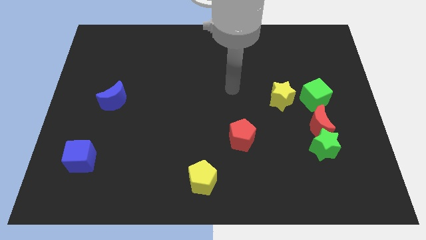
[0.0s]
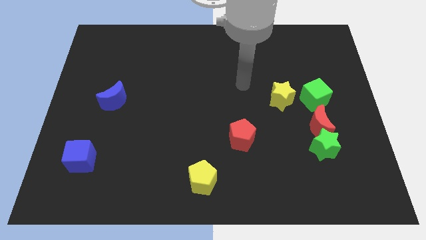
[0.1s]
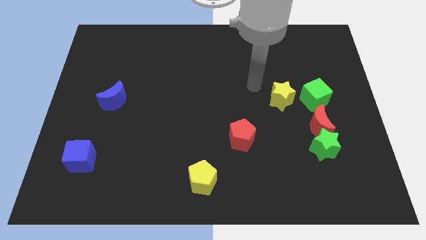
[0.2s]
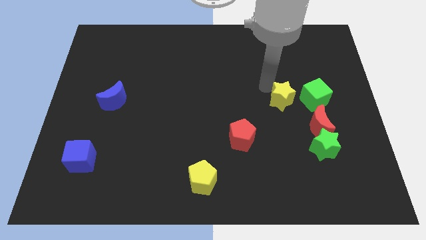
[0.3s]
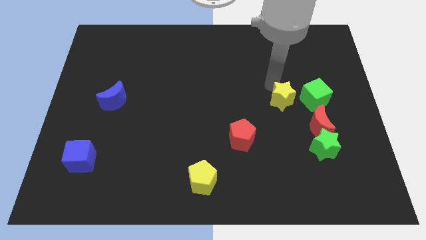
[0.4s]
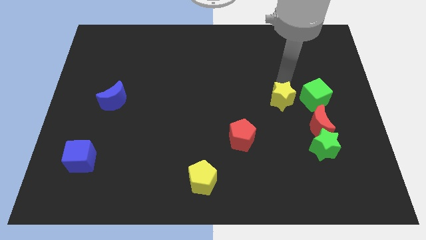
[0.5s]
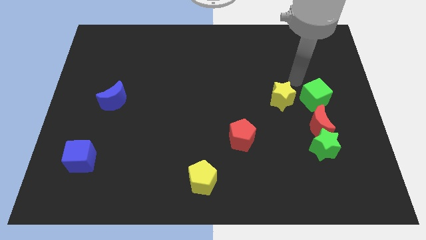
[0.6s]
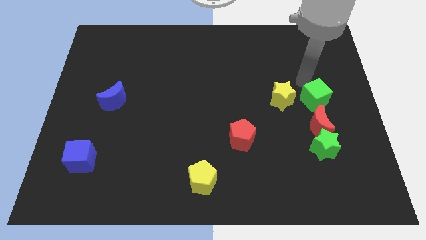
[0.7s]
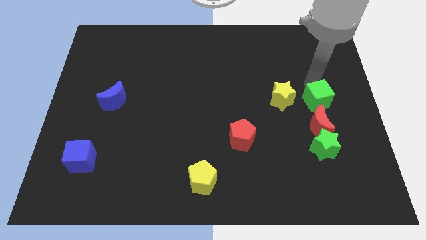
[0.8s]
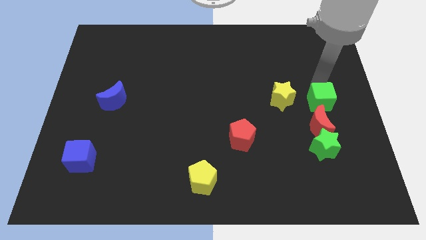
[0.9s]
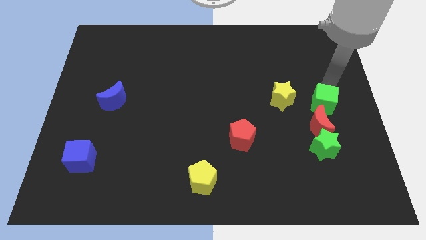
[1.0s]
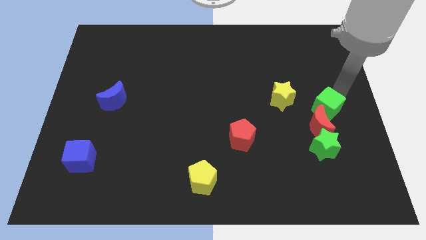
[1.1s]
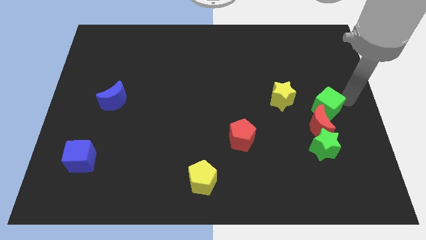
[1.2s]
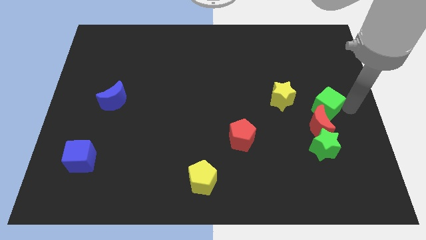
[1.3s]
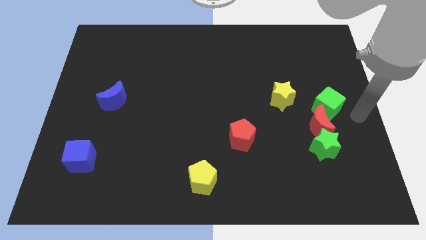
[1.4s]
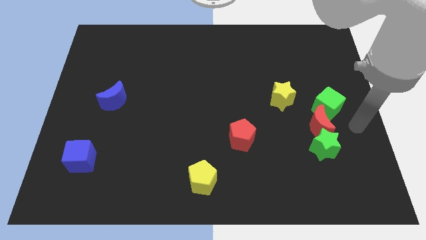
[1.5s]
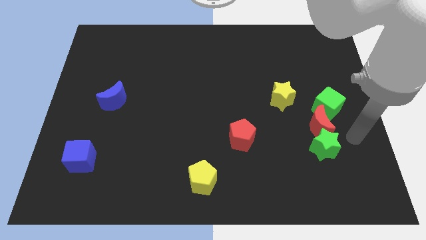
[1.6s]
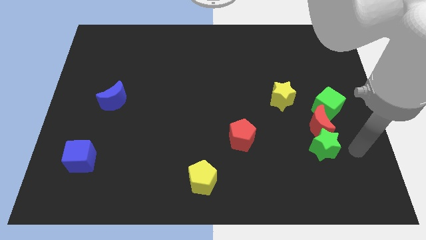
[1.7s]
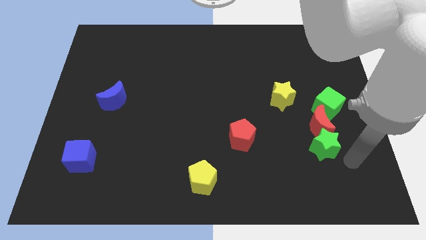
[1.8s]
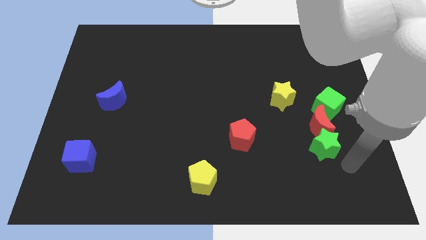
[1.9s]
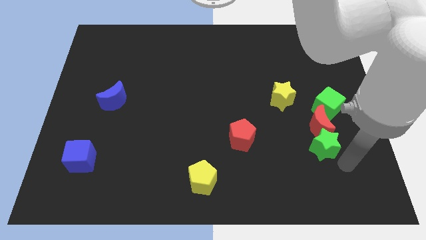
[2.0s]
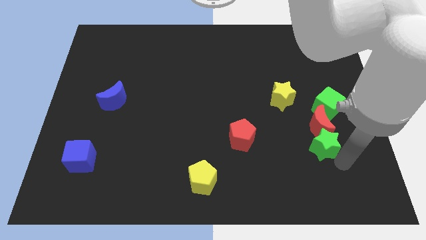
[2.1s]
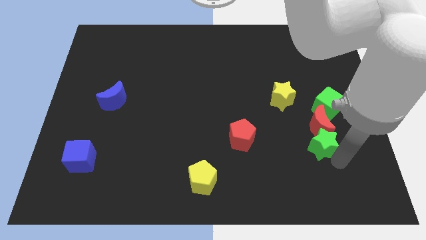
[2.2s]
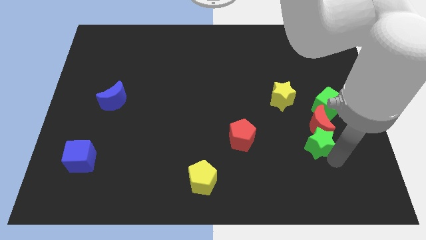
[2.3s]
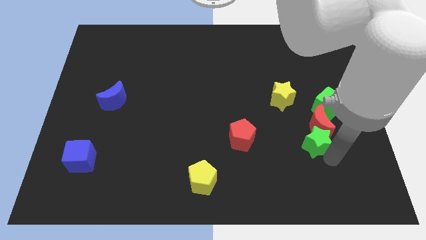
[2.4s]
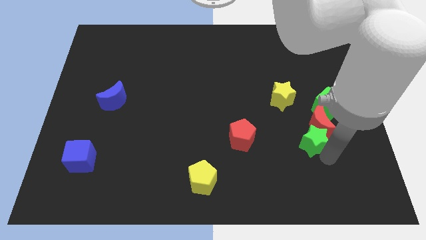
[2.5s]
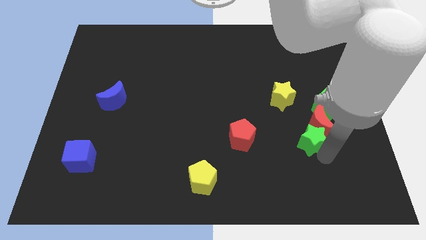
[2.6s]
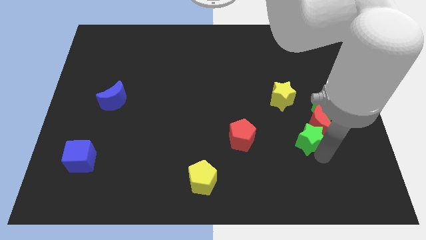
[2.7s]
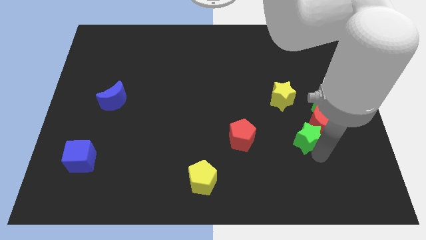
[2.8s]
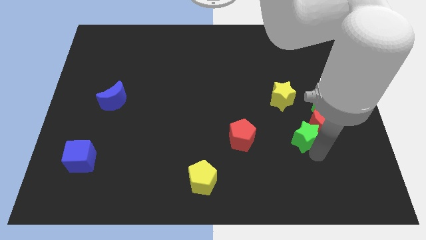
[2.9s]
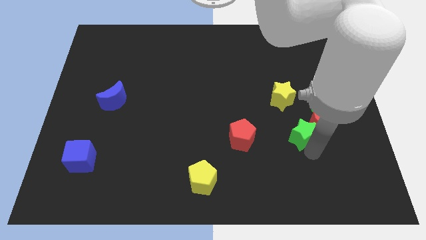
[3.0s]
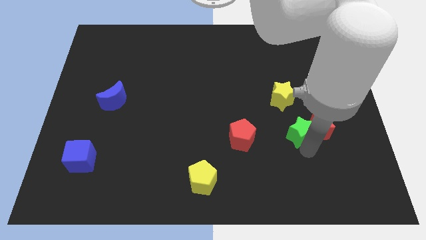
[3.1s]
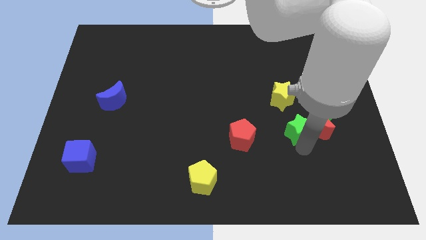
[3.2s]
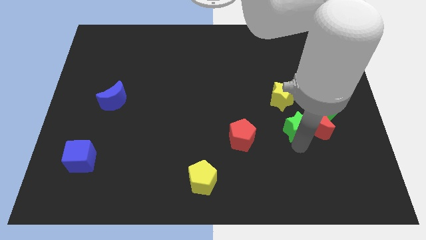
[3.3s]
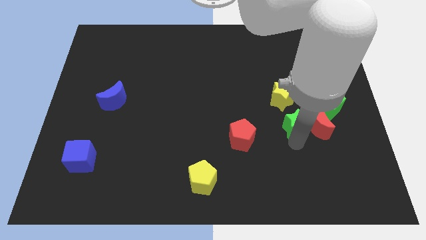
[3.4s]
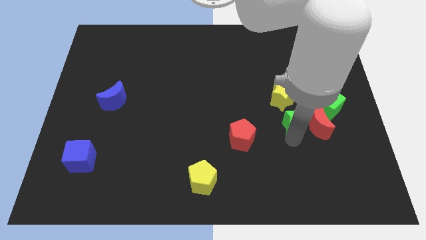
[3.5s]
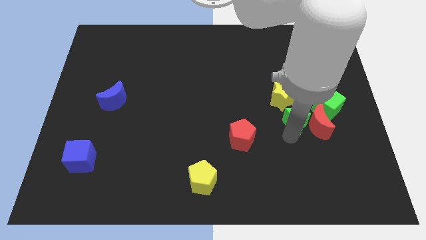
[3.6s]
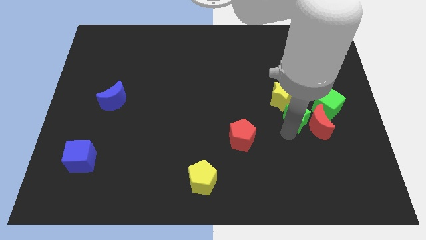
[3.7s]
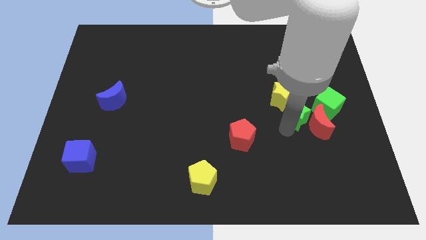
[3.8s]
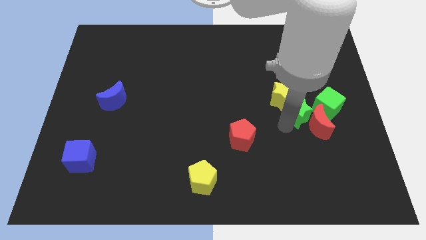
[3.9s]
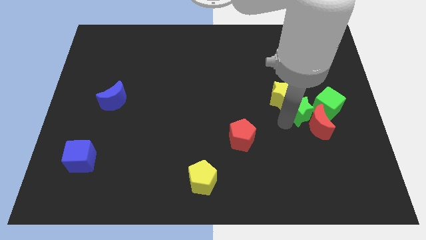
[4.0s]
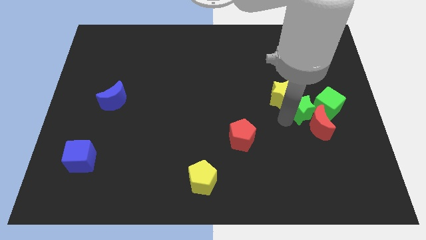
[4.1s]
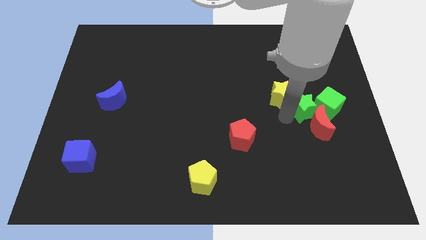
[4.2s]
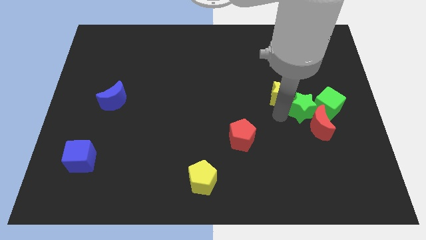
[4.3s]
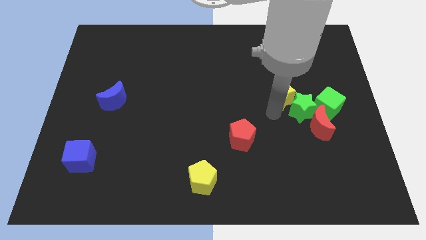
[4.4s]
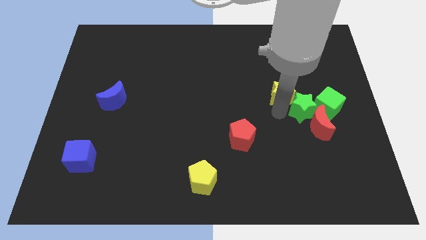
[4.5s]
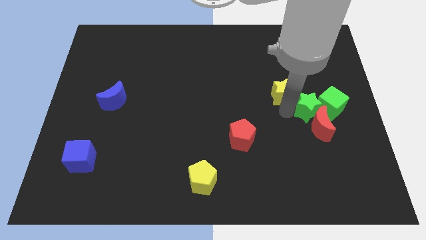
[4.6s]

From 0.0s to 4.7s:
move the green star towards the green cube

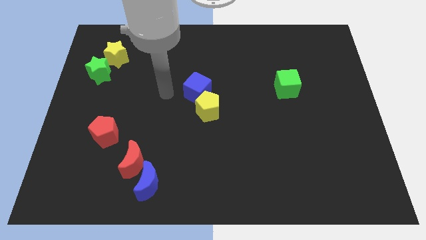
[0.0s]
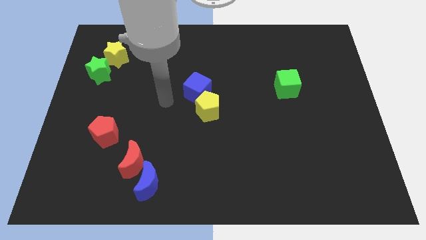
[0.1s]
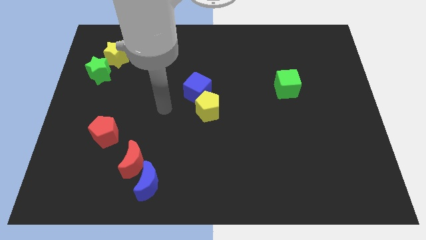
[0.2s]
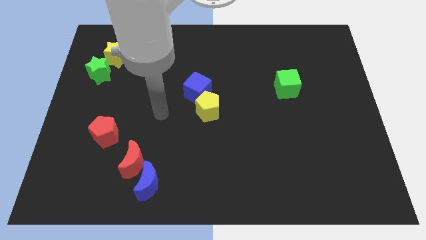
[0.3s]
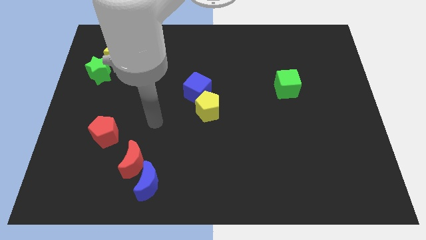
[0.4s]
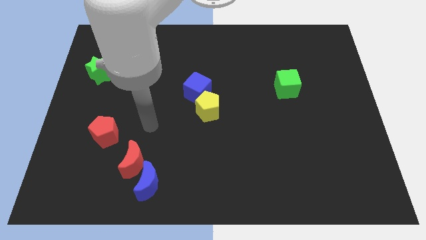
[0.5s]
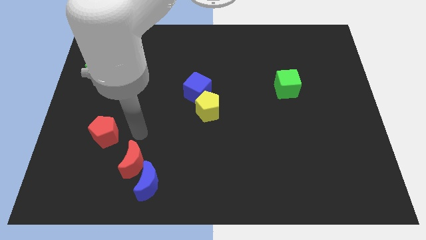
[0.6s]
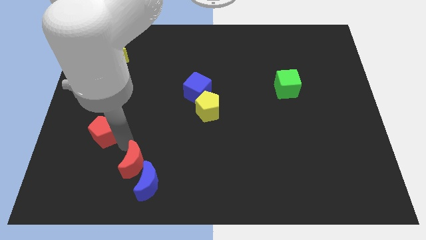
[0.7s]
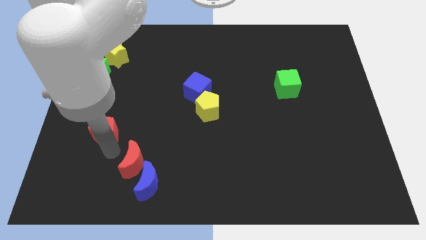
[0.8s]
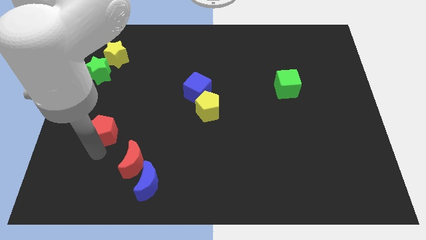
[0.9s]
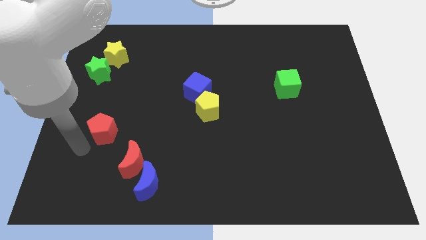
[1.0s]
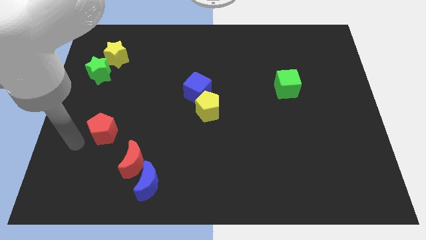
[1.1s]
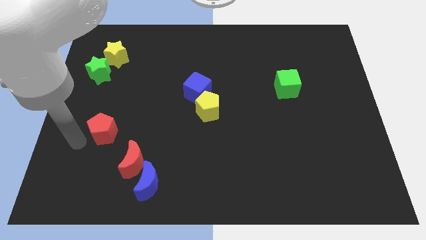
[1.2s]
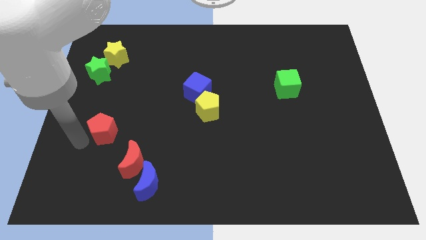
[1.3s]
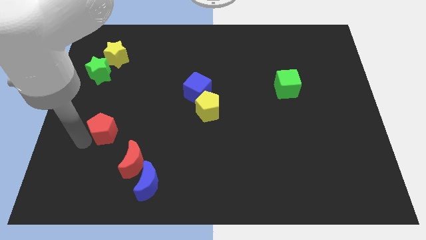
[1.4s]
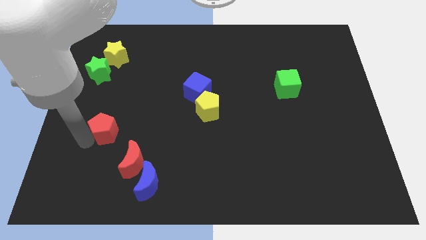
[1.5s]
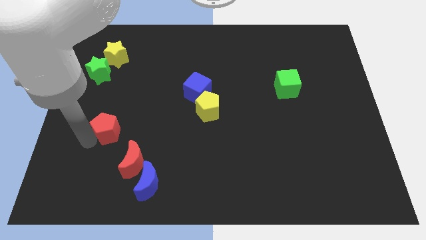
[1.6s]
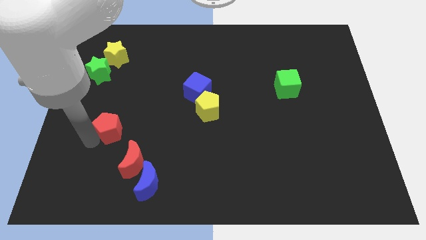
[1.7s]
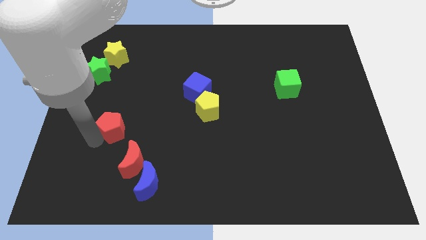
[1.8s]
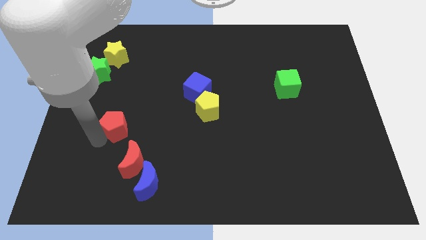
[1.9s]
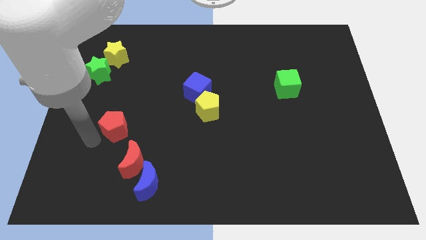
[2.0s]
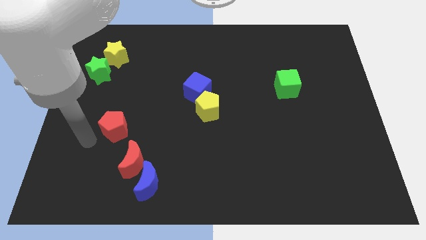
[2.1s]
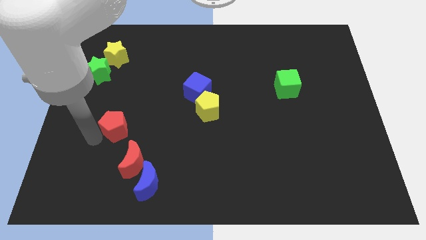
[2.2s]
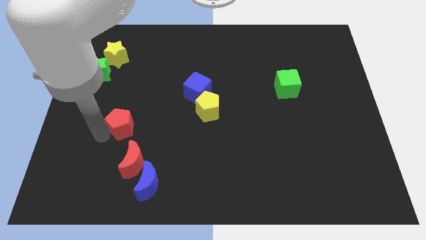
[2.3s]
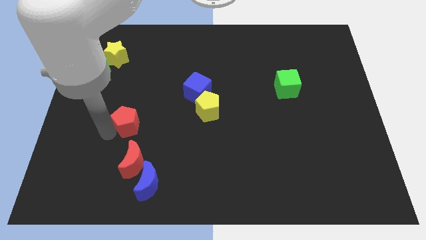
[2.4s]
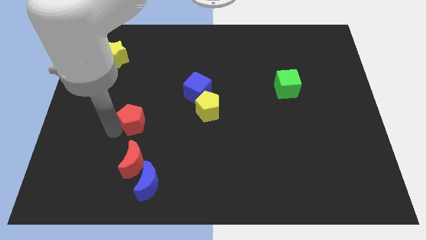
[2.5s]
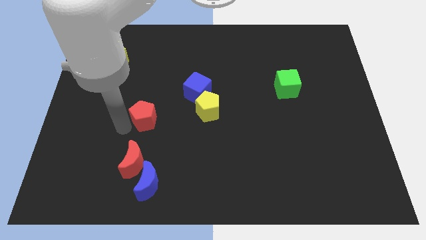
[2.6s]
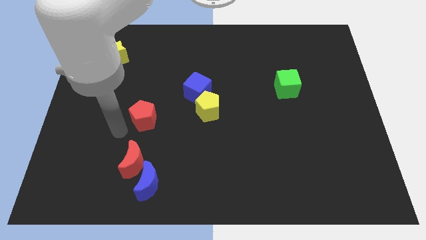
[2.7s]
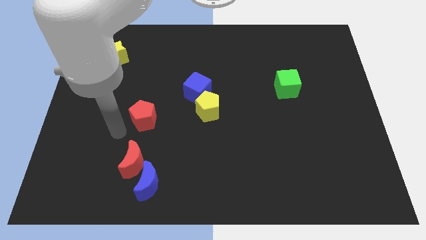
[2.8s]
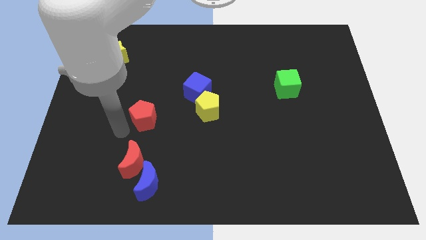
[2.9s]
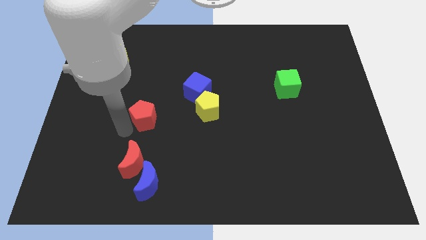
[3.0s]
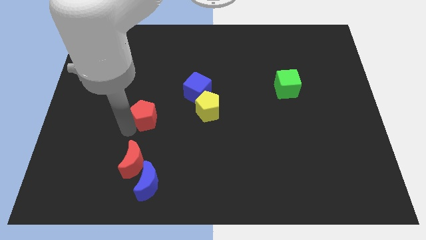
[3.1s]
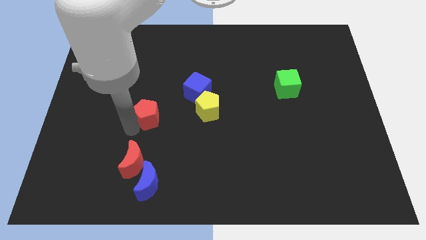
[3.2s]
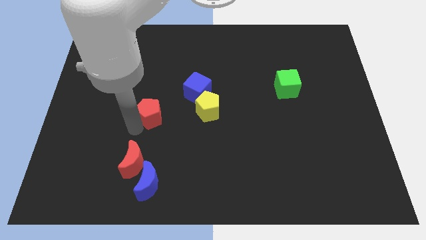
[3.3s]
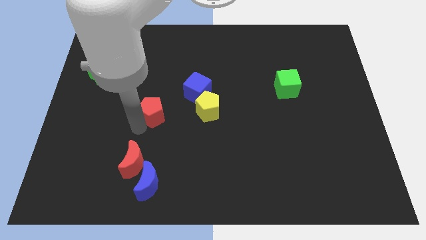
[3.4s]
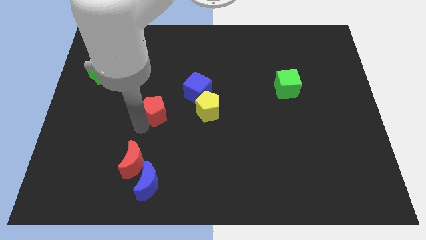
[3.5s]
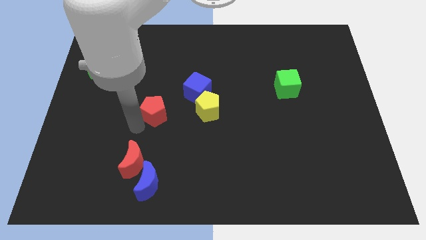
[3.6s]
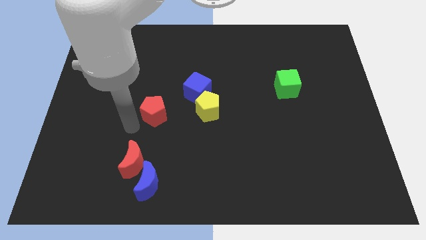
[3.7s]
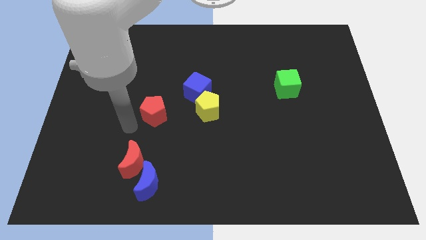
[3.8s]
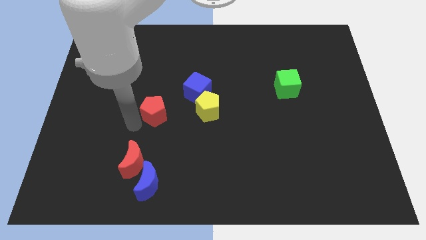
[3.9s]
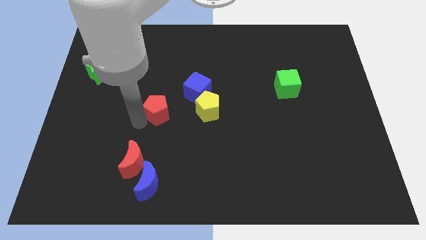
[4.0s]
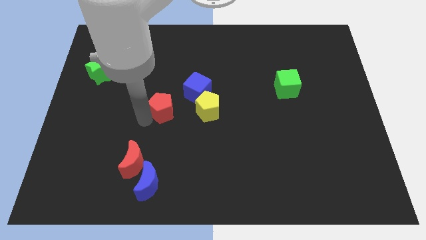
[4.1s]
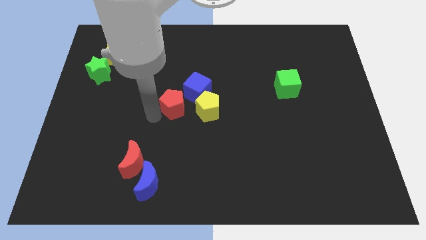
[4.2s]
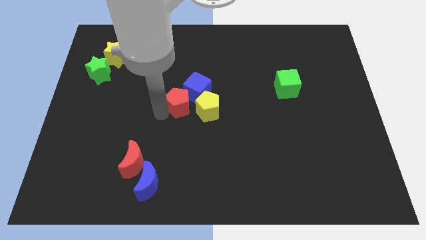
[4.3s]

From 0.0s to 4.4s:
push the red pentagon towards the blue cube
